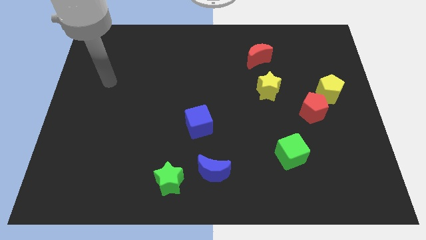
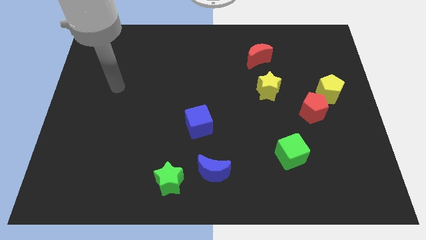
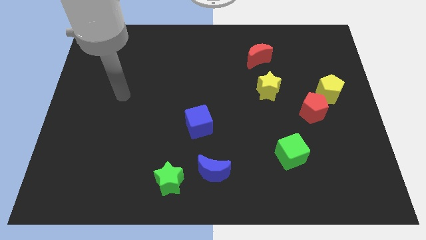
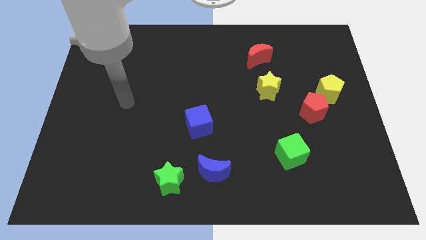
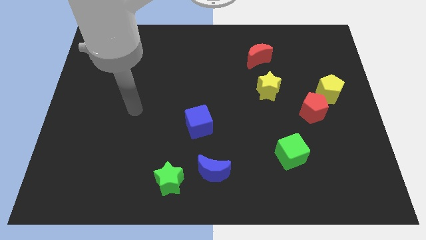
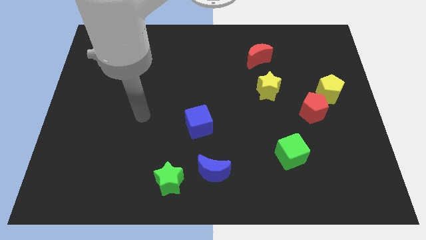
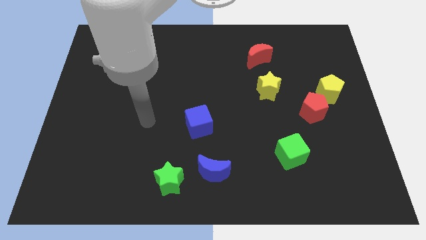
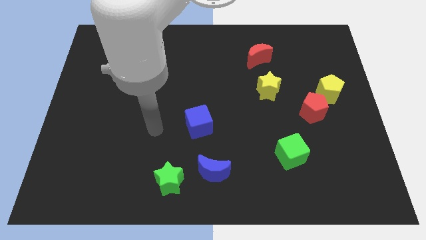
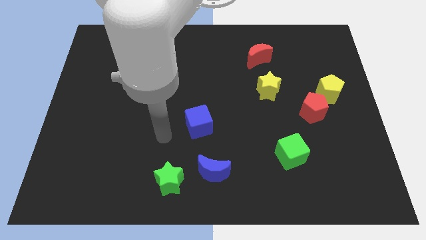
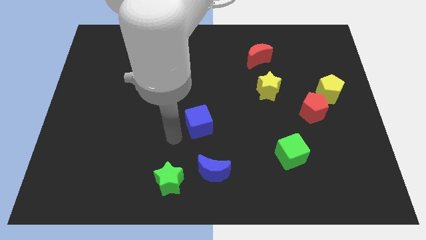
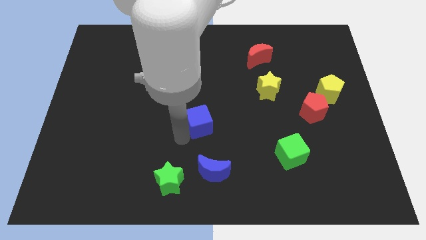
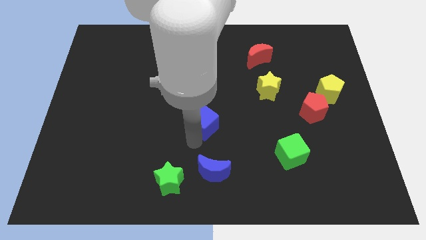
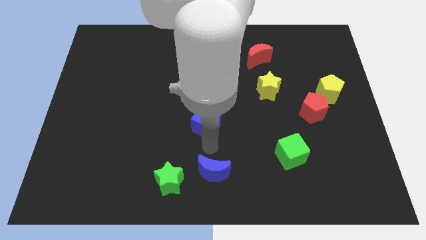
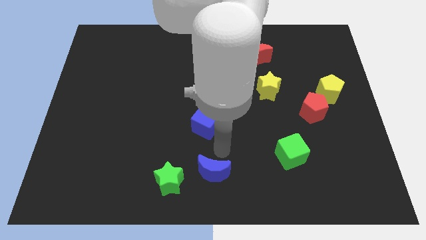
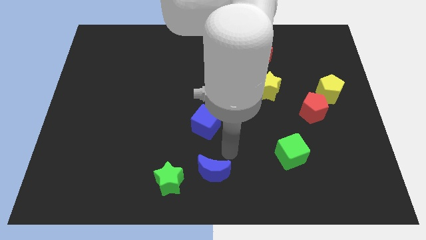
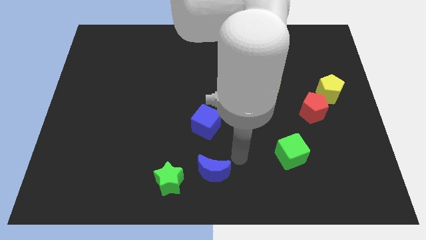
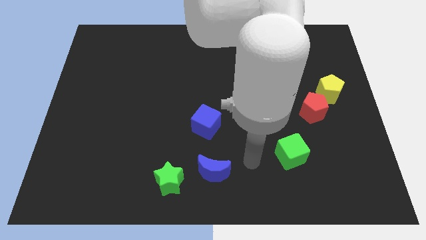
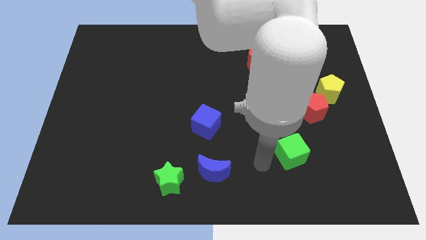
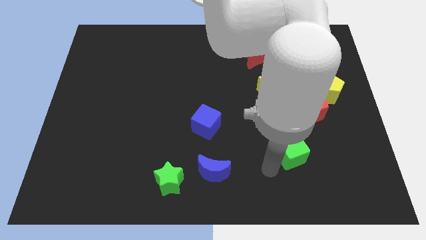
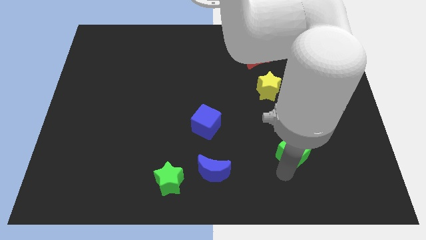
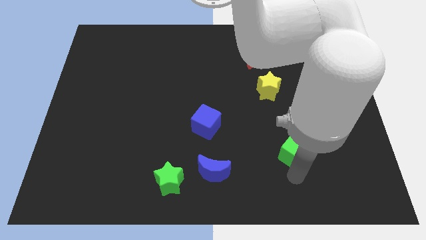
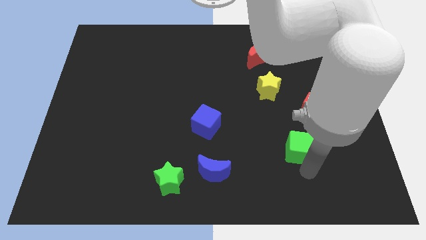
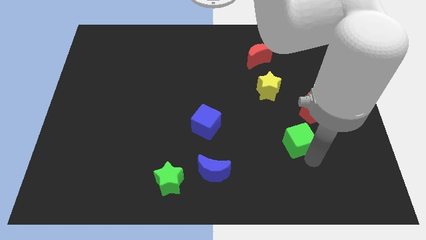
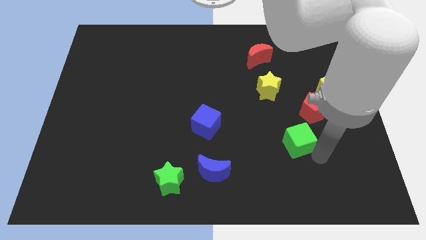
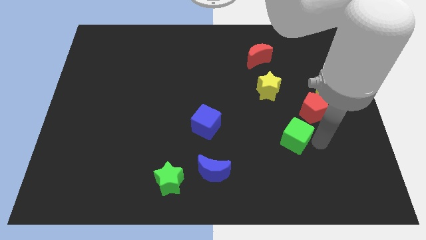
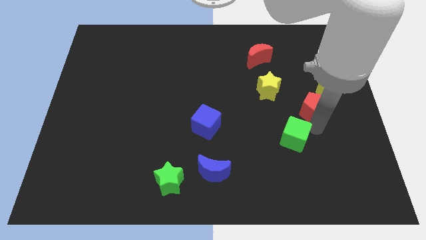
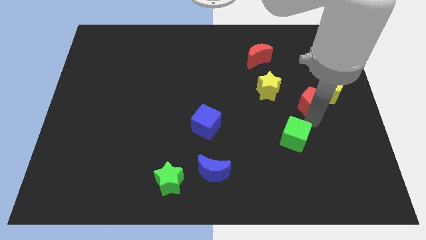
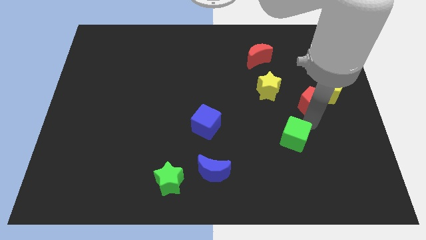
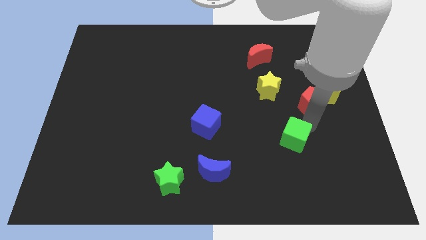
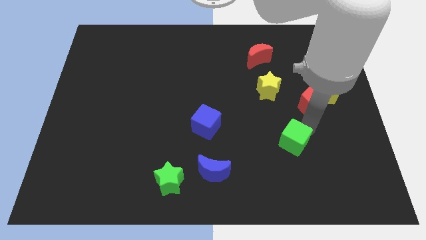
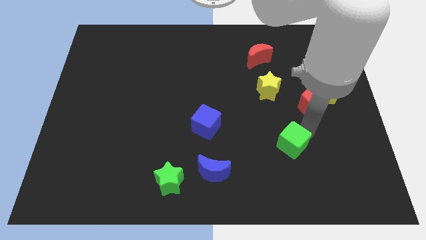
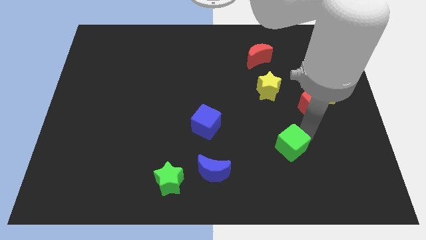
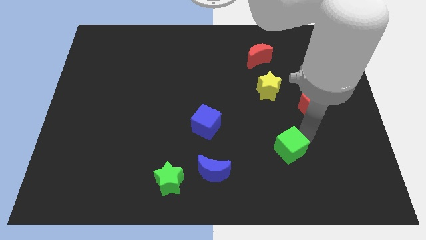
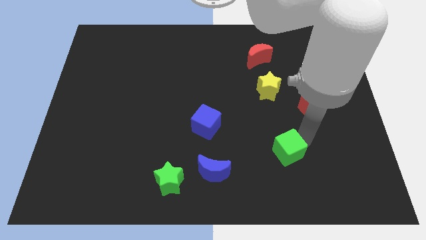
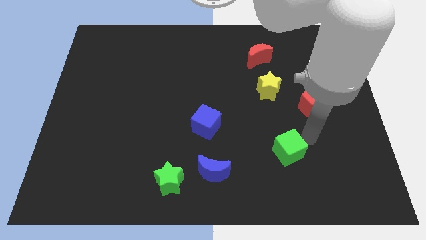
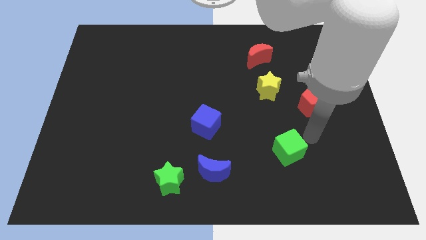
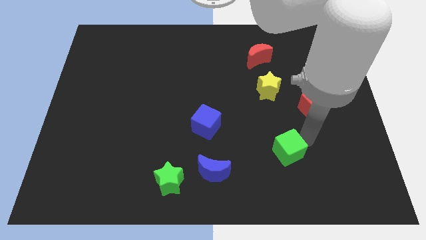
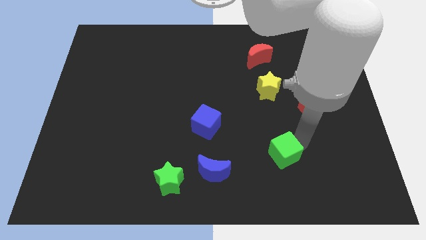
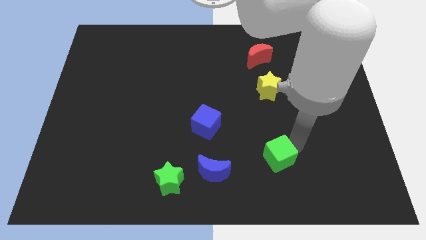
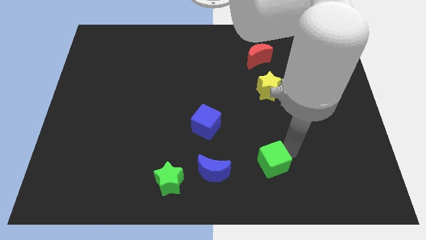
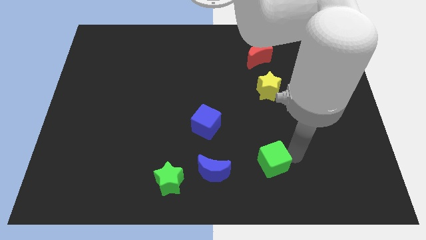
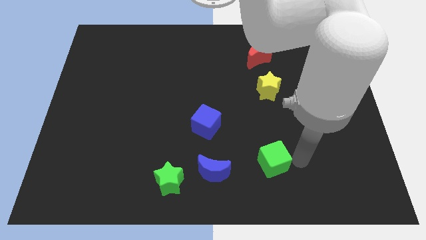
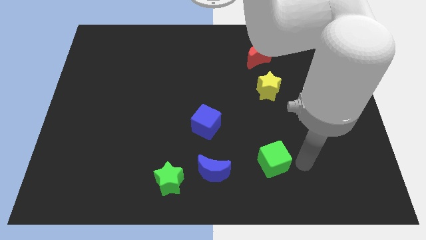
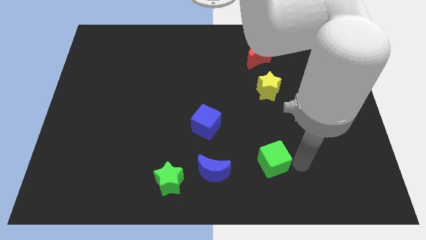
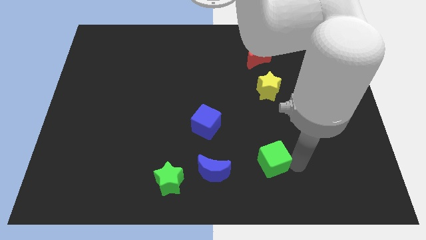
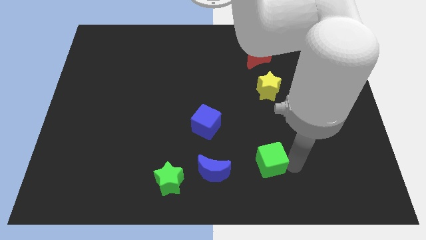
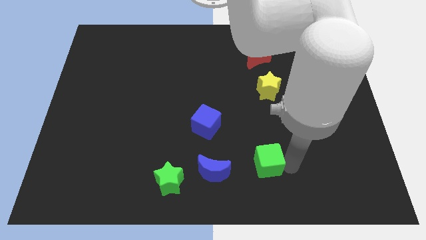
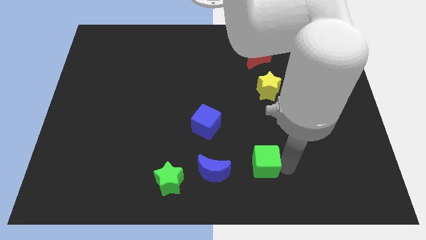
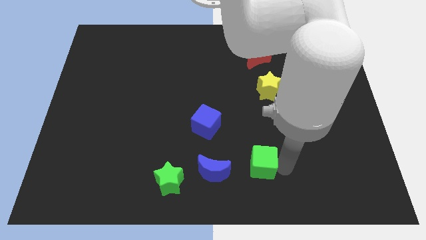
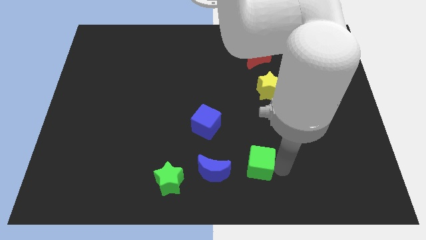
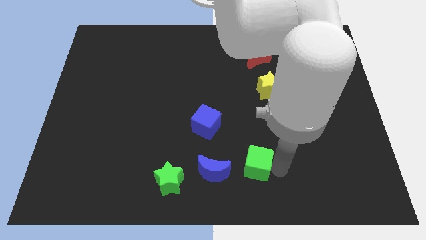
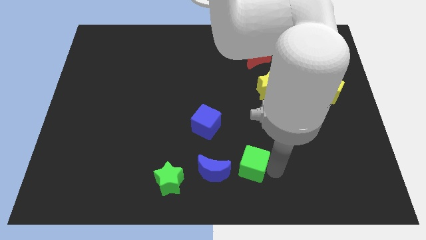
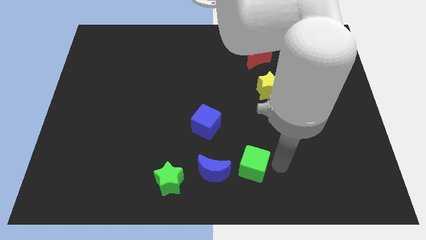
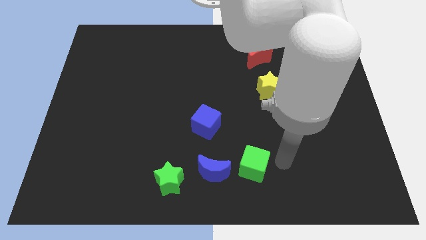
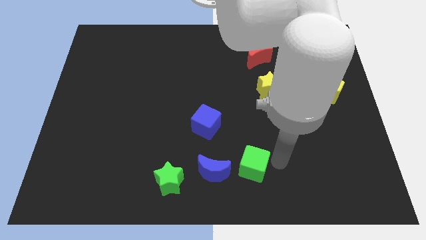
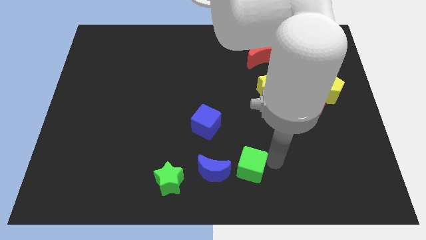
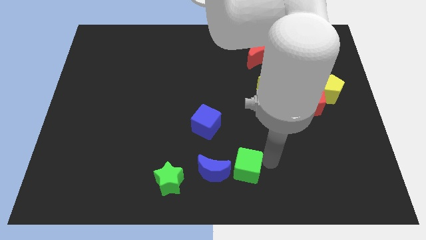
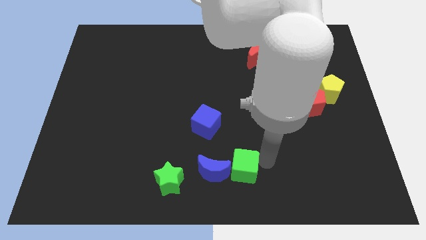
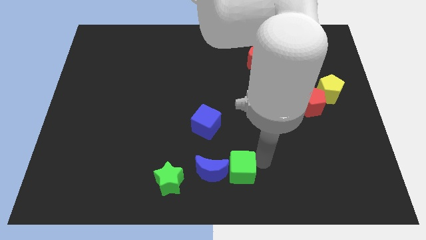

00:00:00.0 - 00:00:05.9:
slide the green cube close to the blue moon

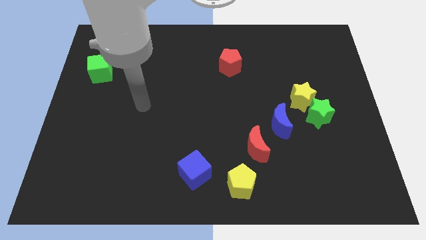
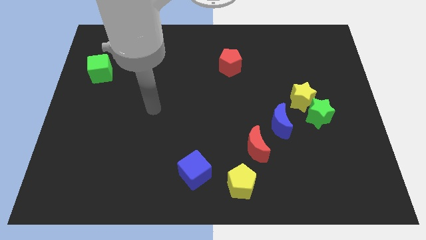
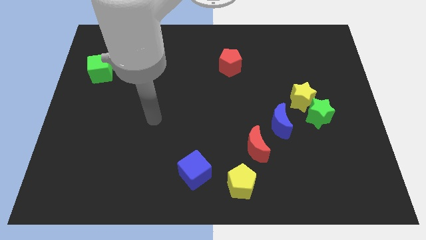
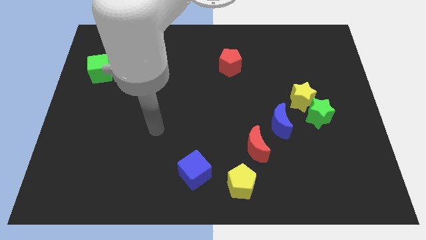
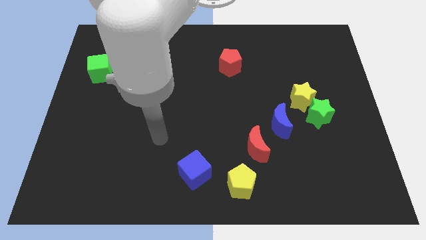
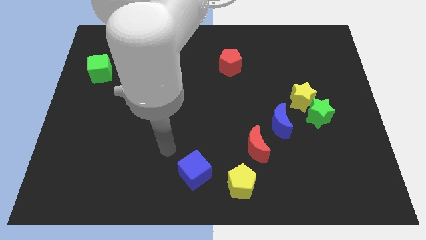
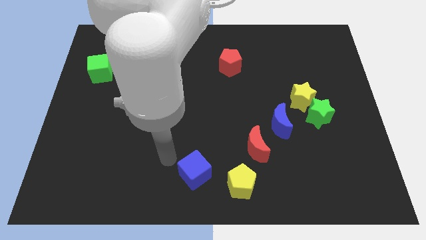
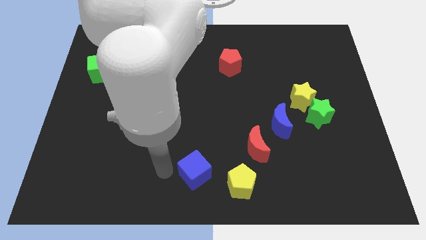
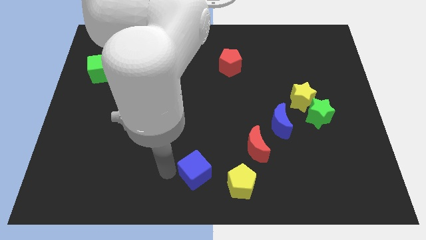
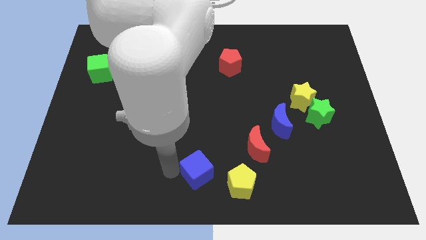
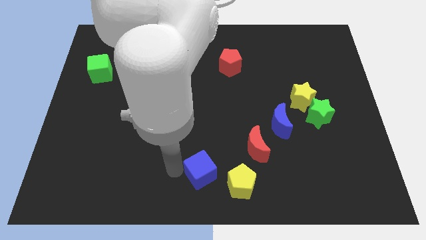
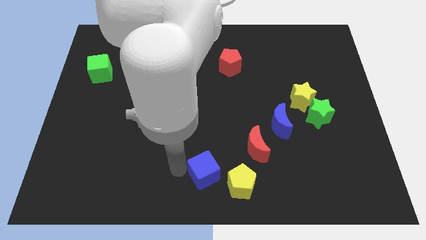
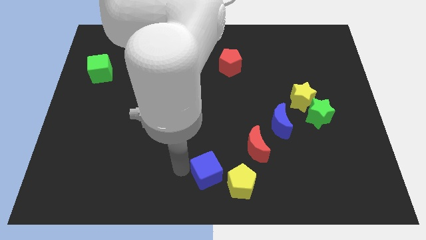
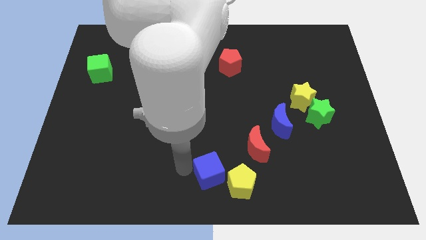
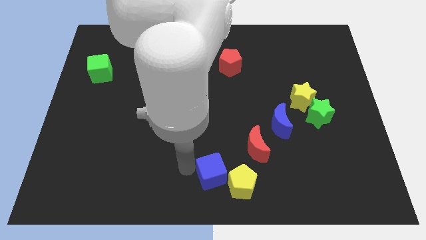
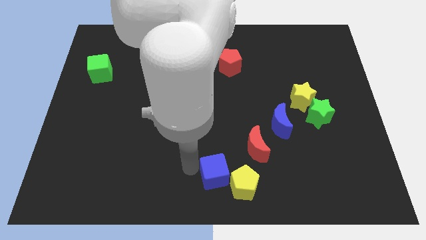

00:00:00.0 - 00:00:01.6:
slide the blue cube close to the yellow pentagon
